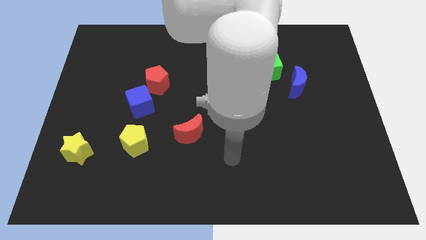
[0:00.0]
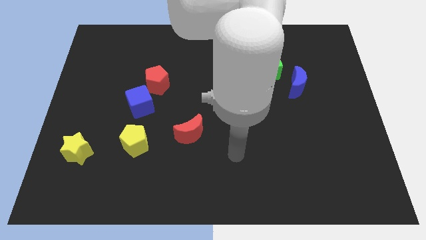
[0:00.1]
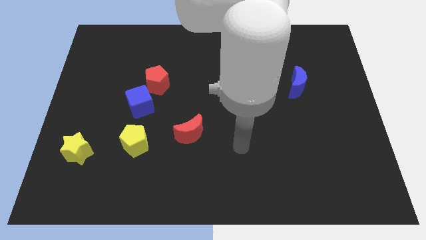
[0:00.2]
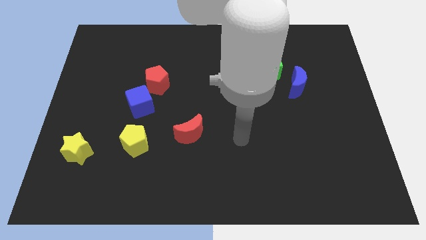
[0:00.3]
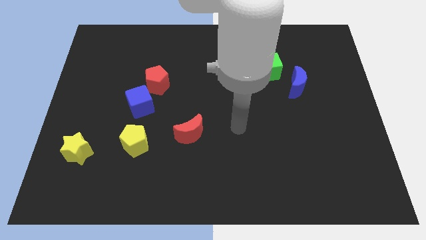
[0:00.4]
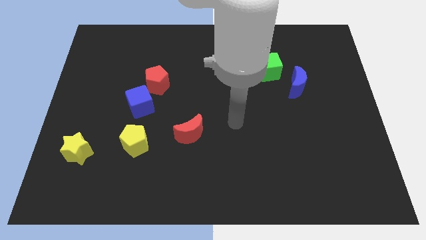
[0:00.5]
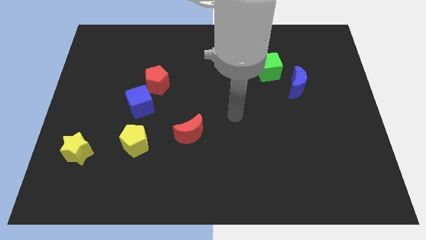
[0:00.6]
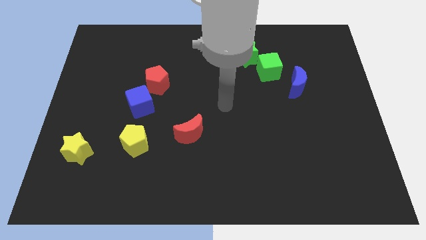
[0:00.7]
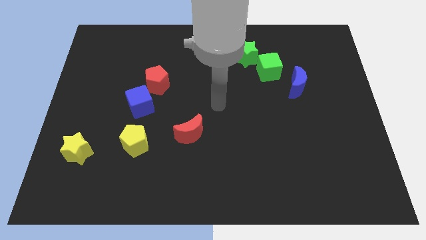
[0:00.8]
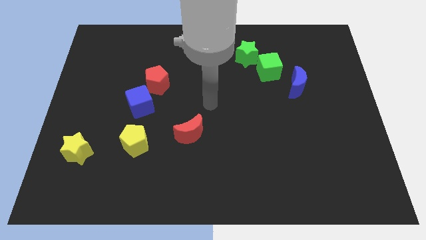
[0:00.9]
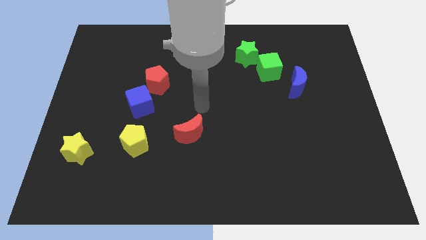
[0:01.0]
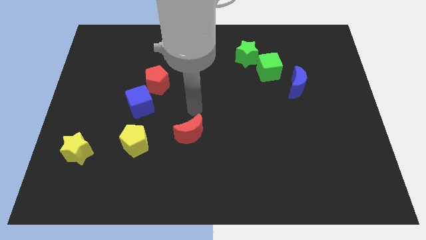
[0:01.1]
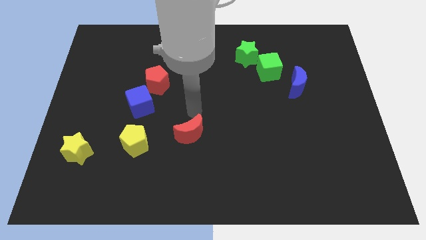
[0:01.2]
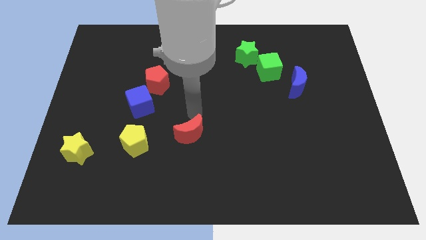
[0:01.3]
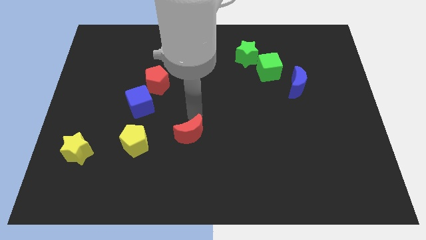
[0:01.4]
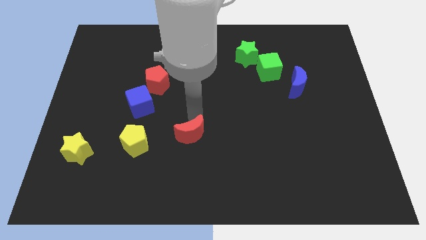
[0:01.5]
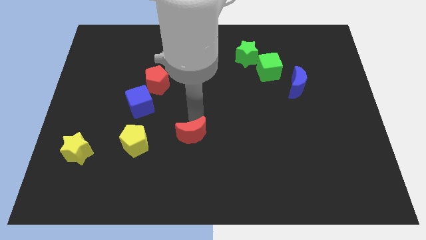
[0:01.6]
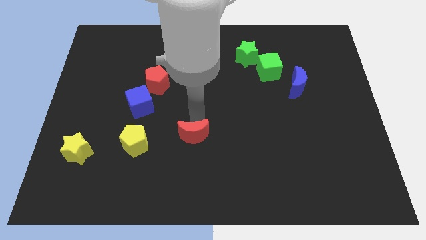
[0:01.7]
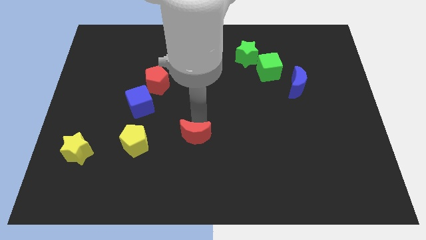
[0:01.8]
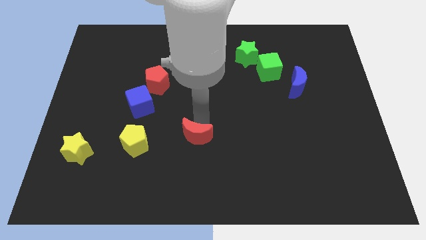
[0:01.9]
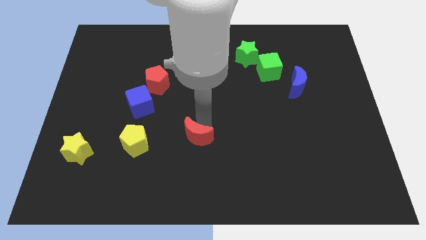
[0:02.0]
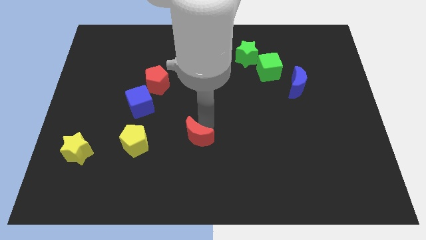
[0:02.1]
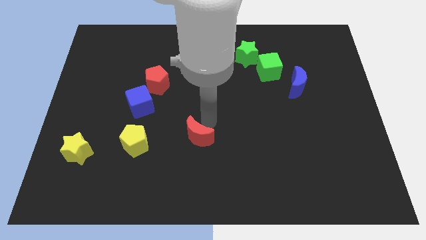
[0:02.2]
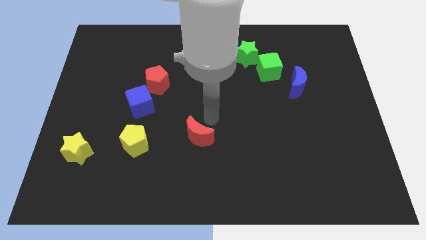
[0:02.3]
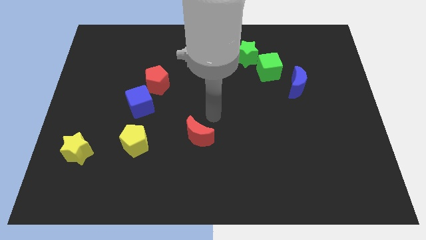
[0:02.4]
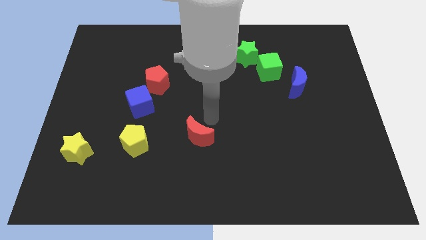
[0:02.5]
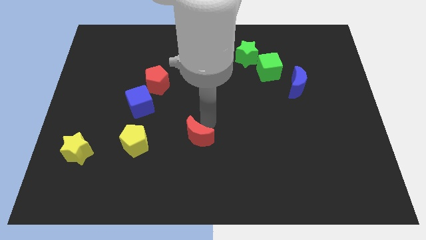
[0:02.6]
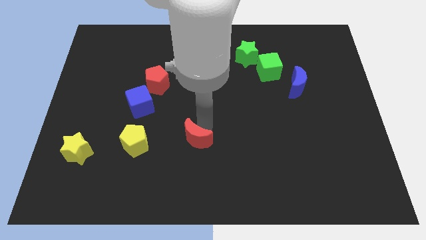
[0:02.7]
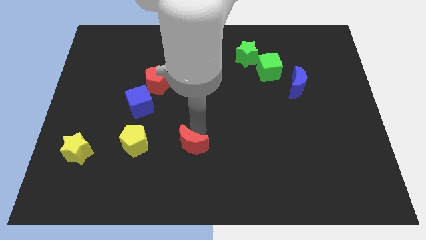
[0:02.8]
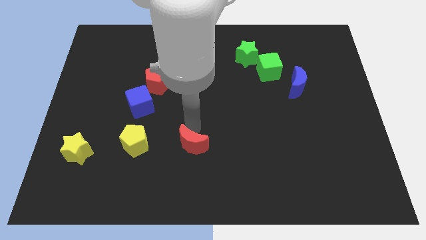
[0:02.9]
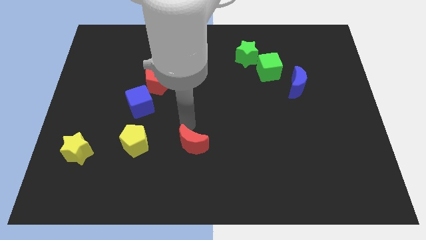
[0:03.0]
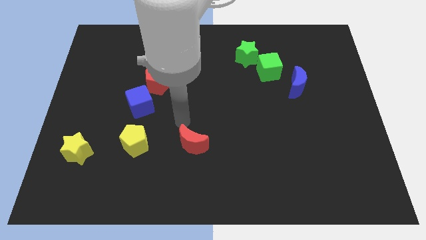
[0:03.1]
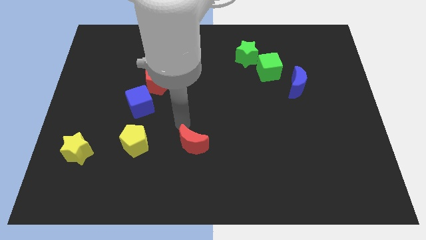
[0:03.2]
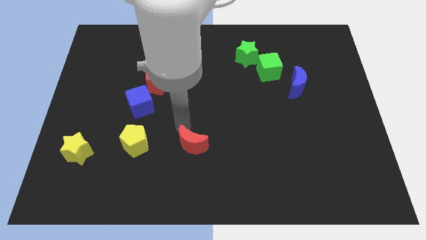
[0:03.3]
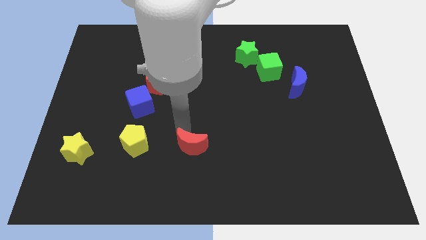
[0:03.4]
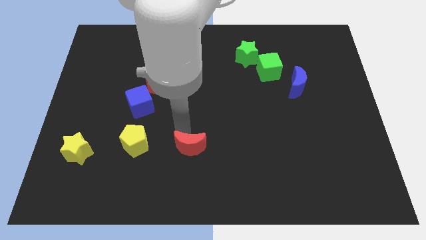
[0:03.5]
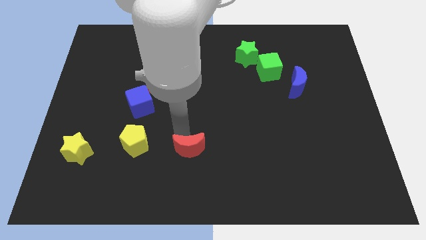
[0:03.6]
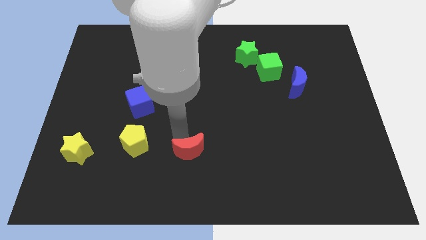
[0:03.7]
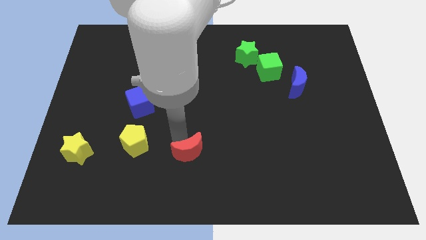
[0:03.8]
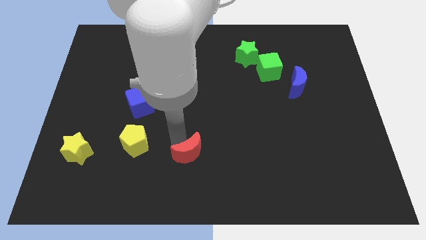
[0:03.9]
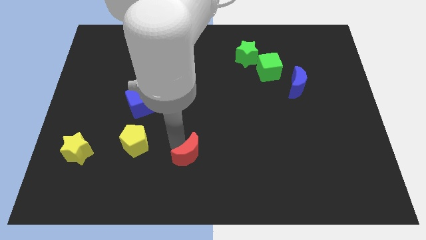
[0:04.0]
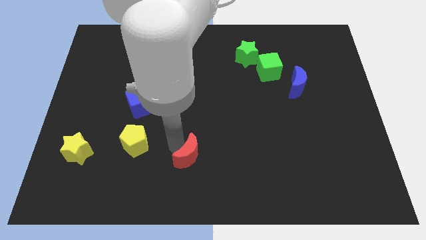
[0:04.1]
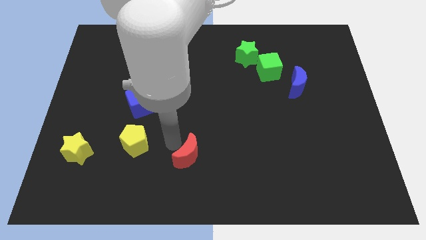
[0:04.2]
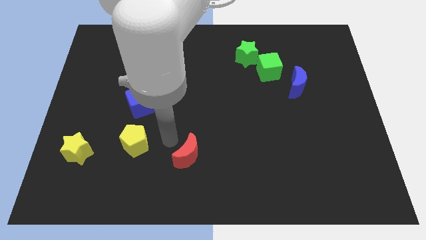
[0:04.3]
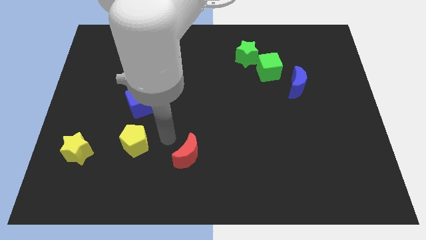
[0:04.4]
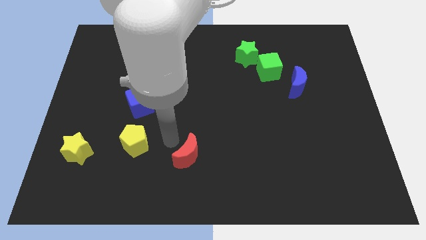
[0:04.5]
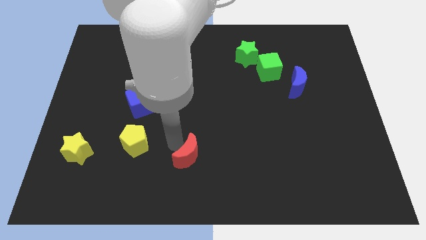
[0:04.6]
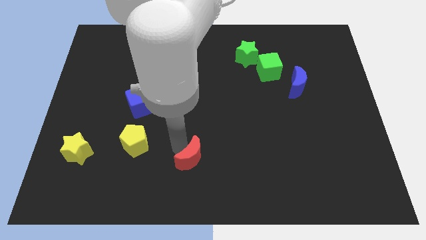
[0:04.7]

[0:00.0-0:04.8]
move the red moon to the bottom side

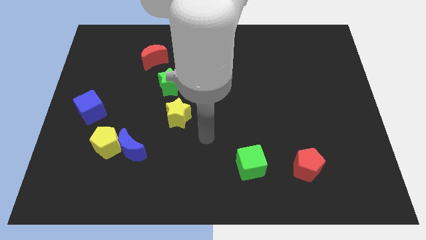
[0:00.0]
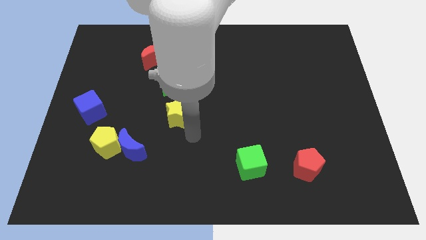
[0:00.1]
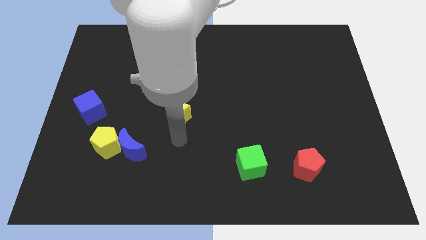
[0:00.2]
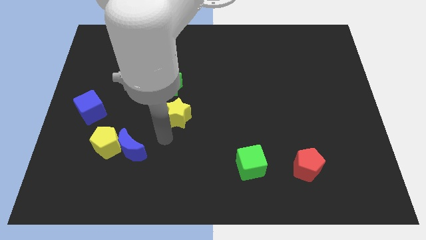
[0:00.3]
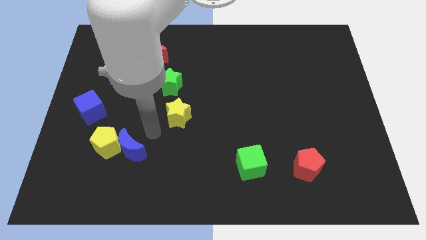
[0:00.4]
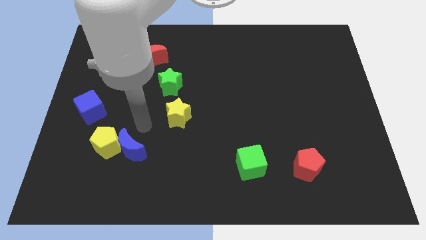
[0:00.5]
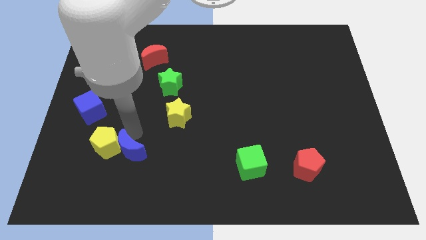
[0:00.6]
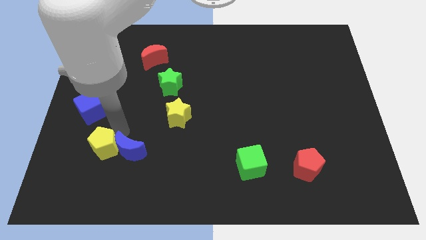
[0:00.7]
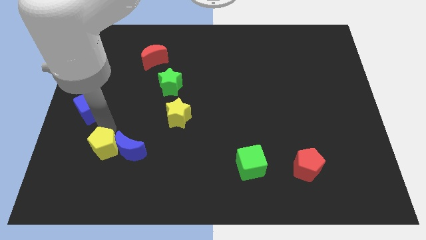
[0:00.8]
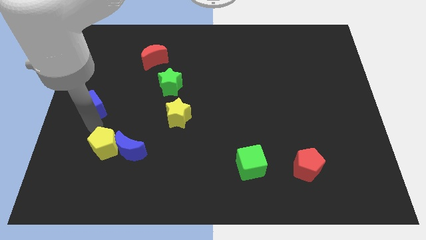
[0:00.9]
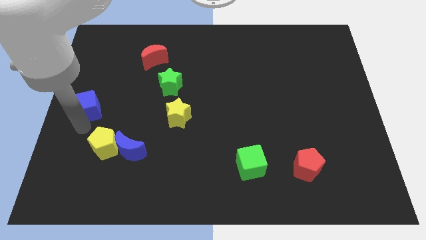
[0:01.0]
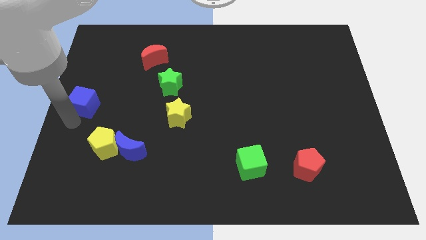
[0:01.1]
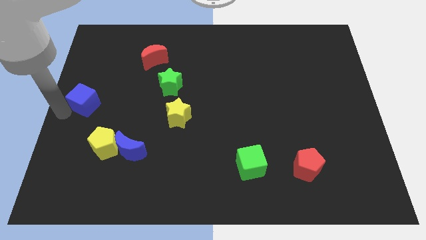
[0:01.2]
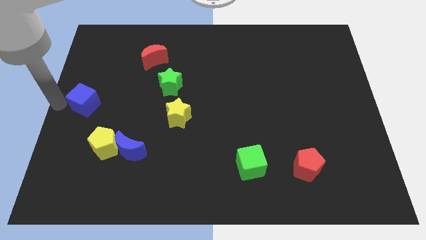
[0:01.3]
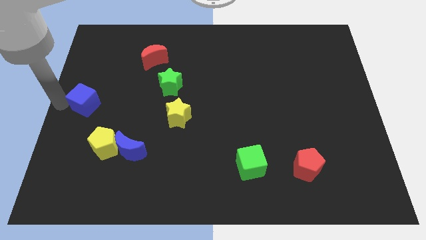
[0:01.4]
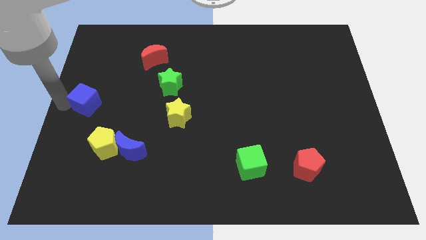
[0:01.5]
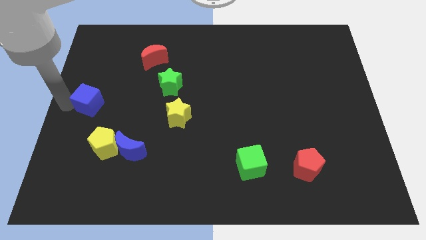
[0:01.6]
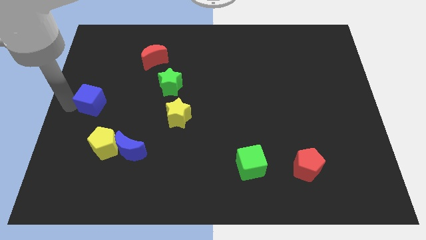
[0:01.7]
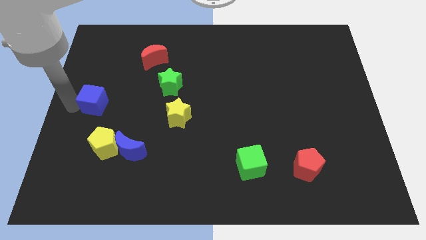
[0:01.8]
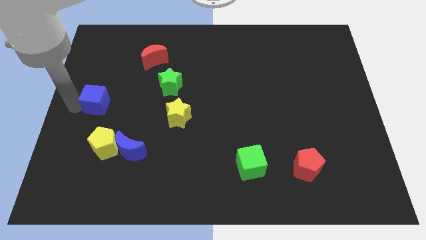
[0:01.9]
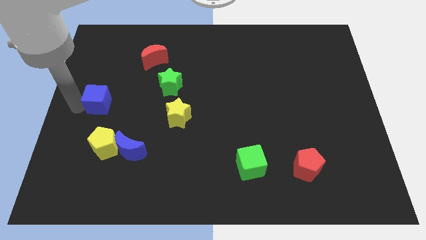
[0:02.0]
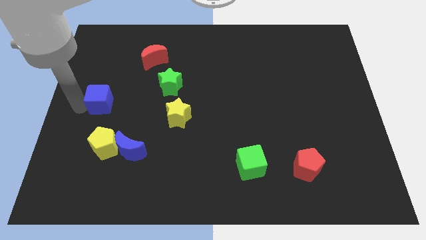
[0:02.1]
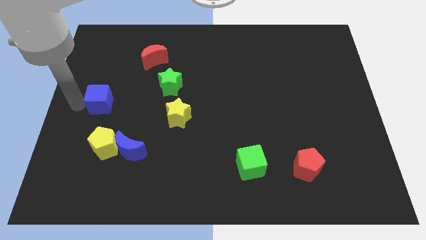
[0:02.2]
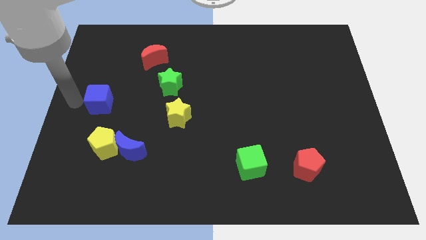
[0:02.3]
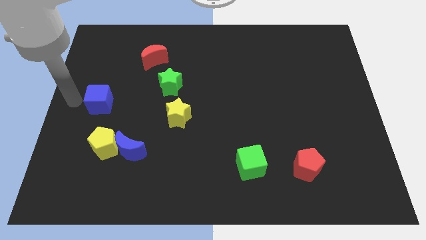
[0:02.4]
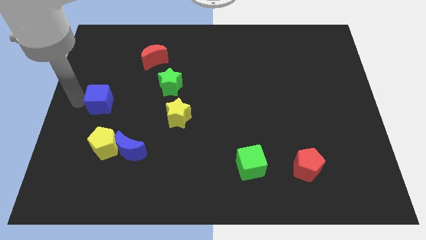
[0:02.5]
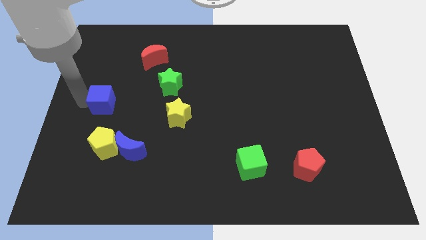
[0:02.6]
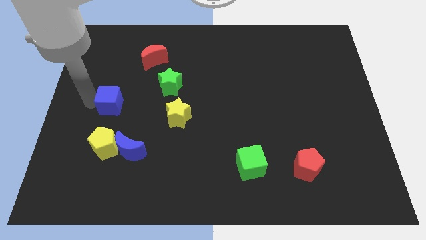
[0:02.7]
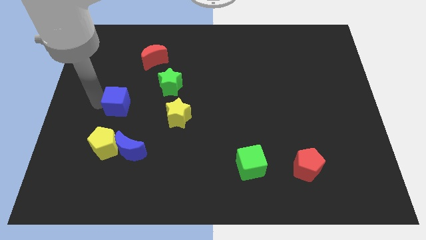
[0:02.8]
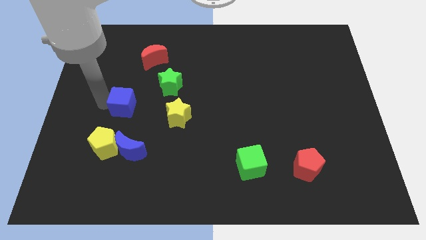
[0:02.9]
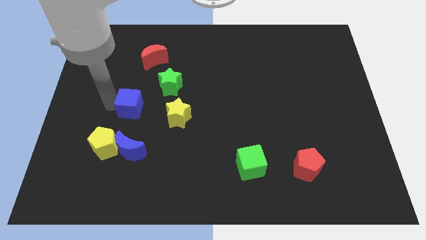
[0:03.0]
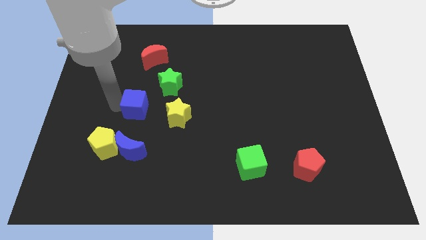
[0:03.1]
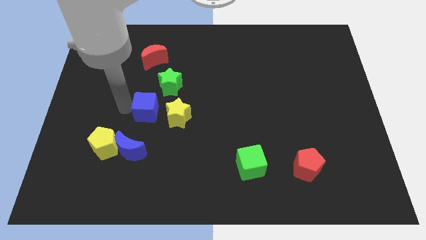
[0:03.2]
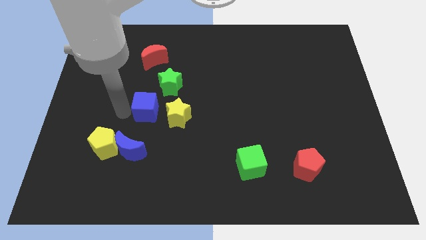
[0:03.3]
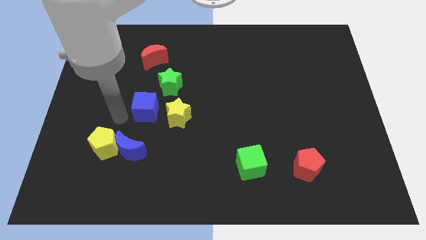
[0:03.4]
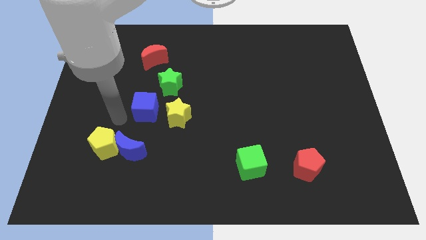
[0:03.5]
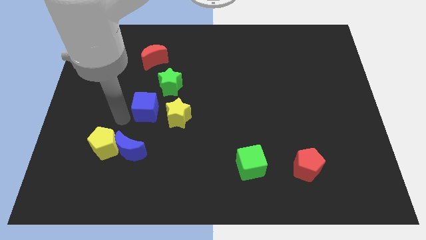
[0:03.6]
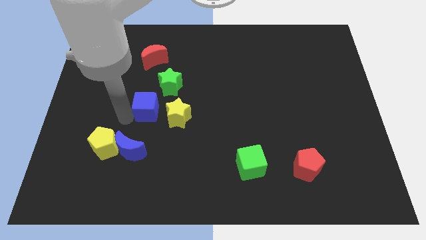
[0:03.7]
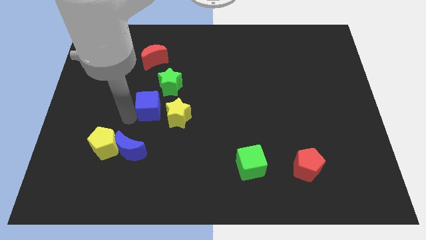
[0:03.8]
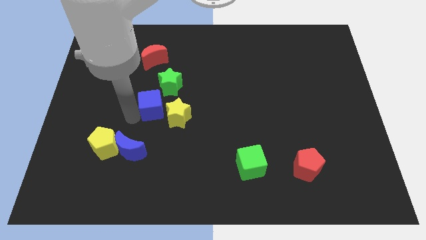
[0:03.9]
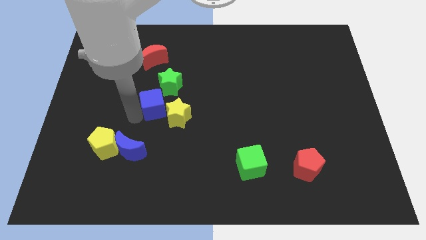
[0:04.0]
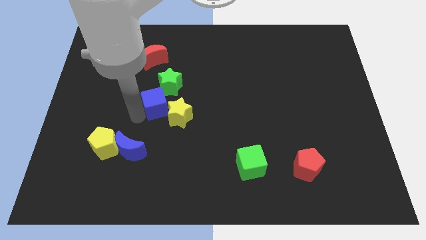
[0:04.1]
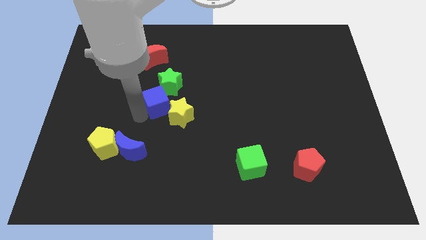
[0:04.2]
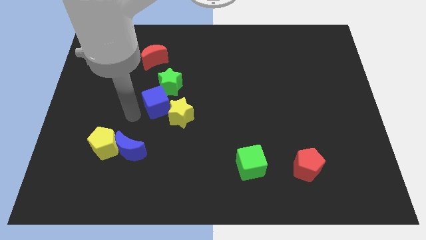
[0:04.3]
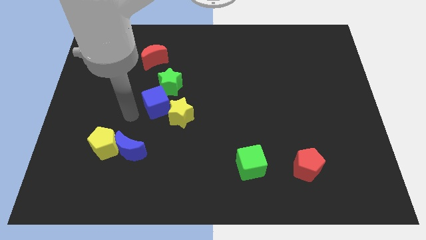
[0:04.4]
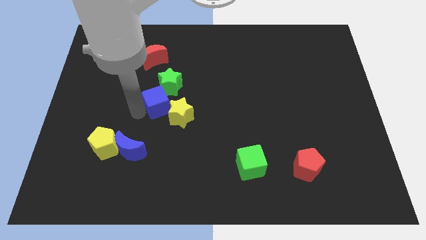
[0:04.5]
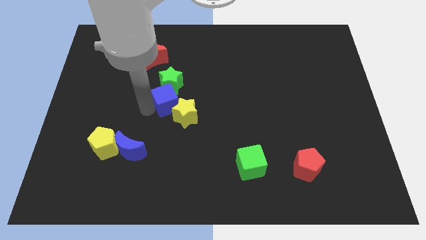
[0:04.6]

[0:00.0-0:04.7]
slide the blue cube to the middle
